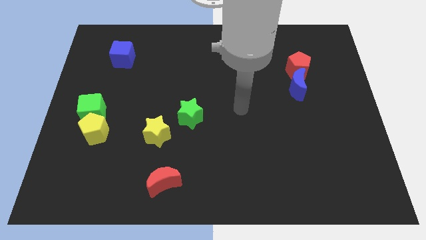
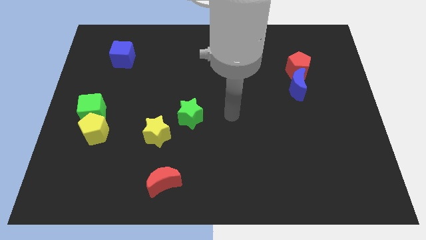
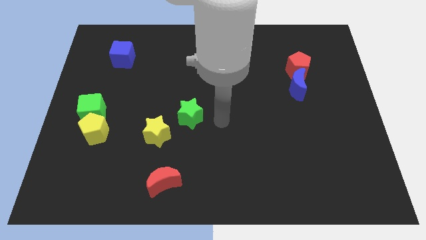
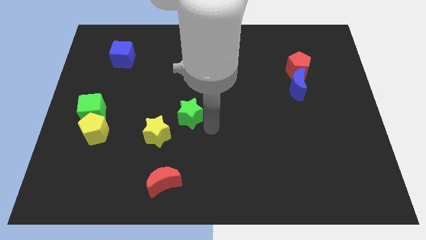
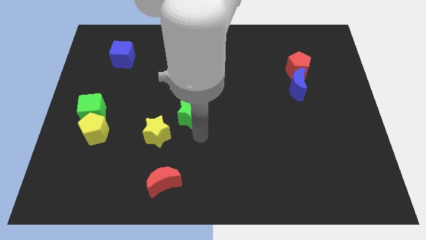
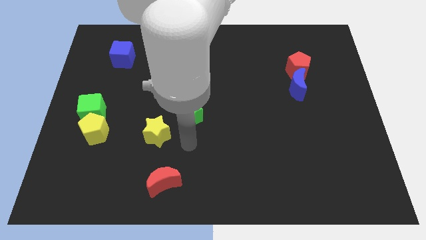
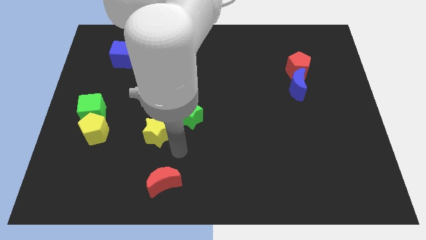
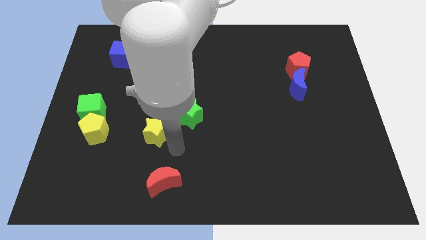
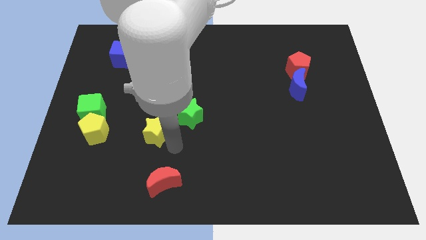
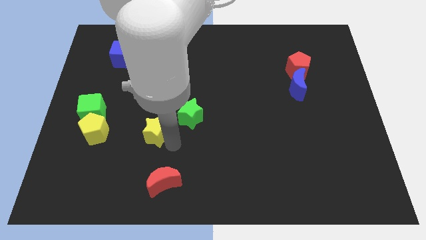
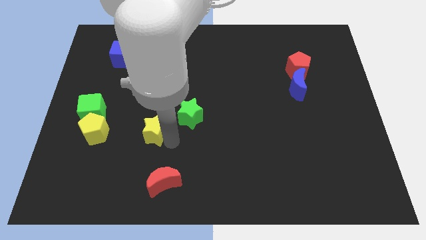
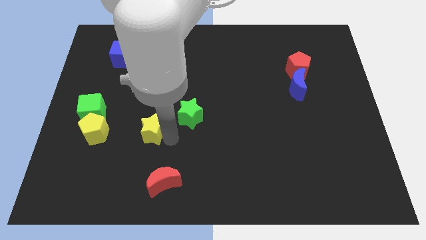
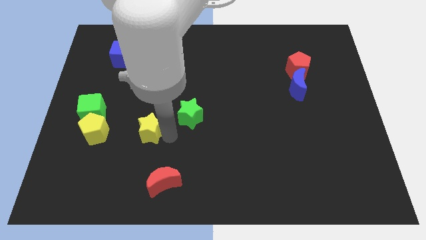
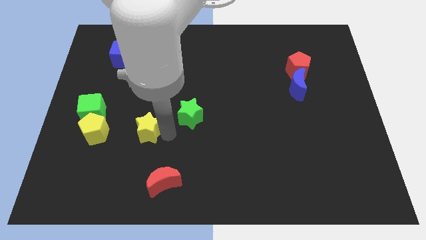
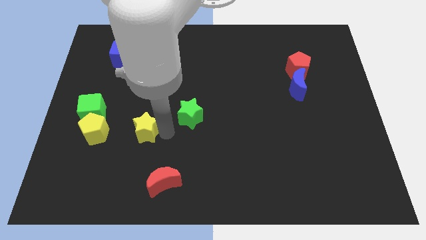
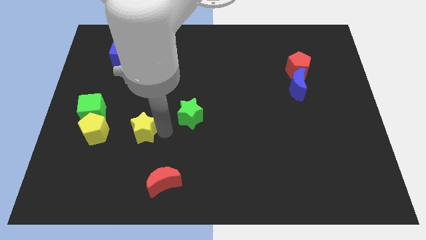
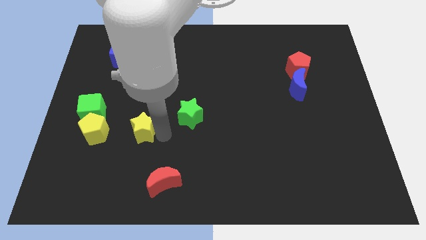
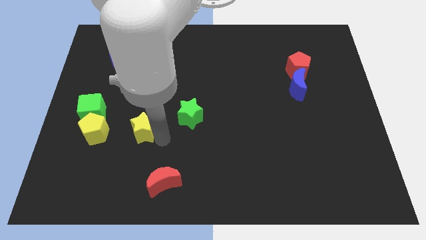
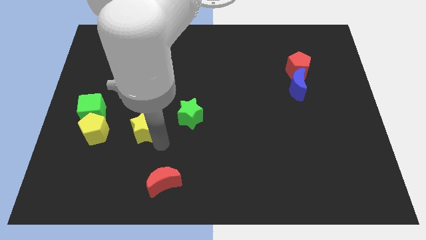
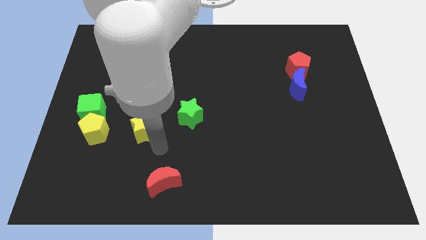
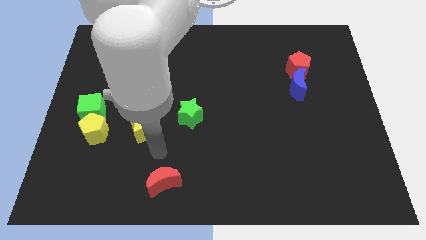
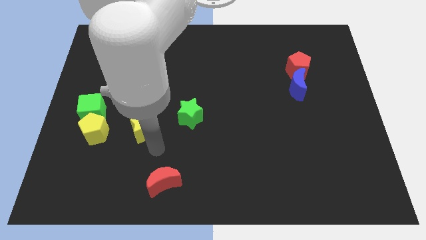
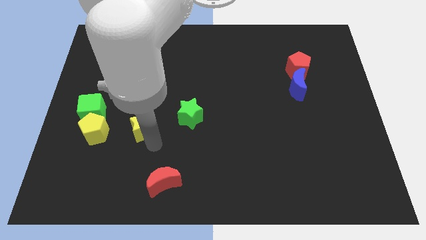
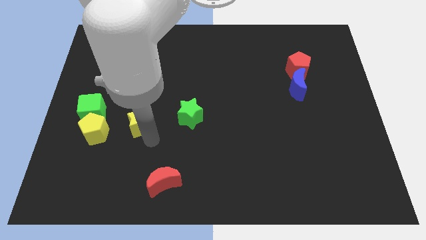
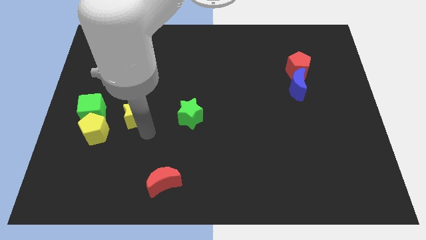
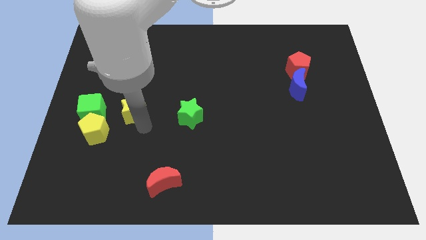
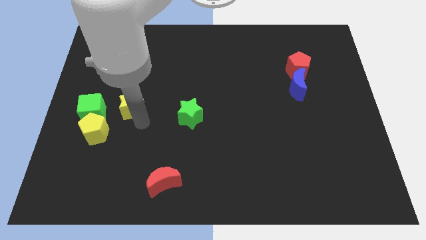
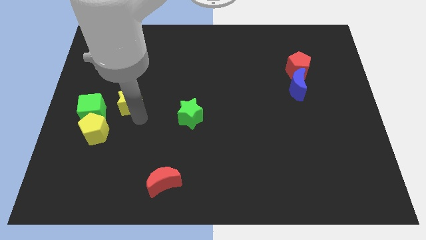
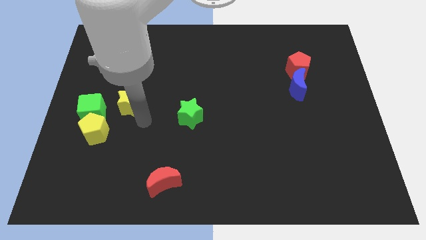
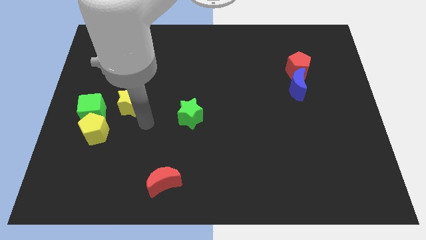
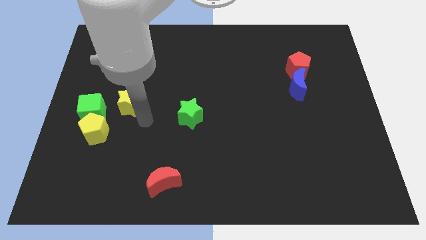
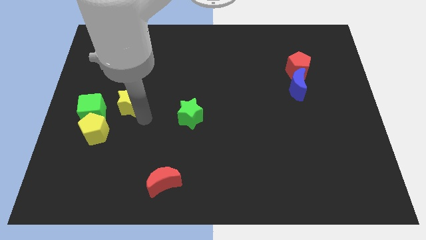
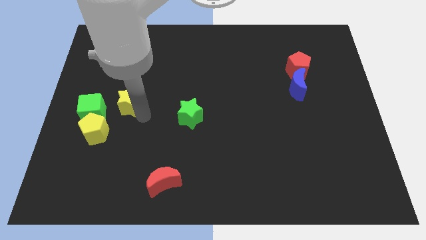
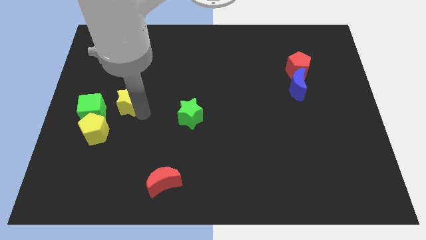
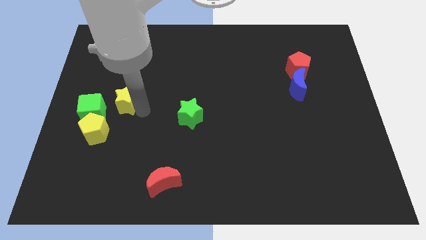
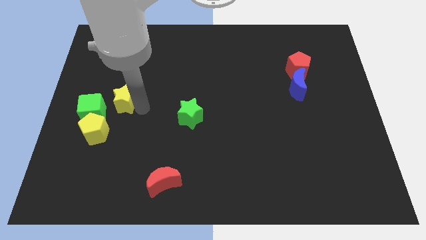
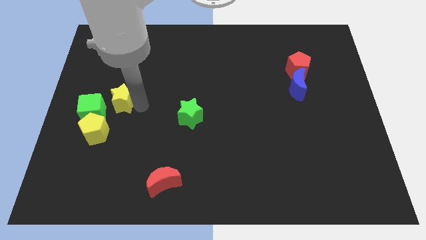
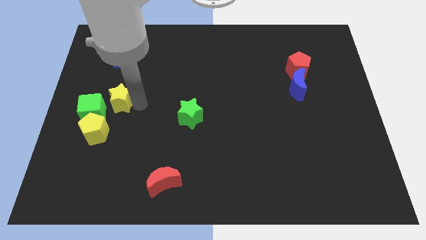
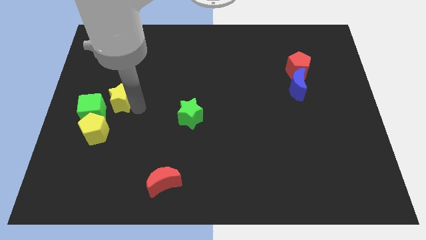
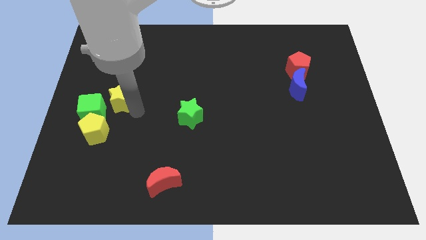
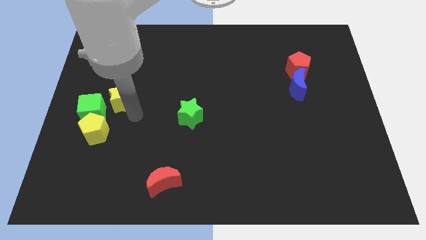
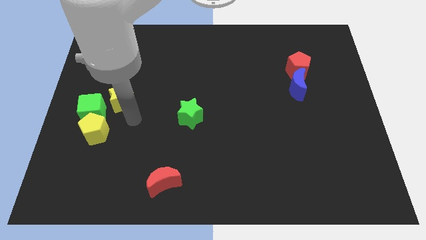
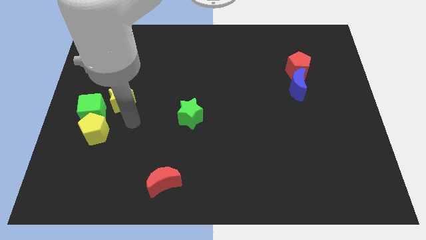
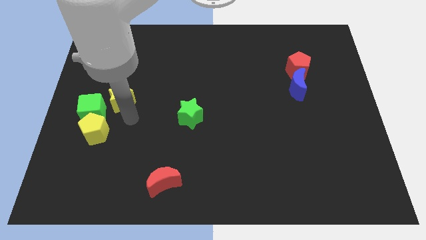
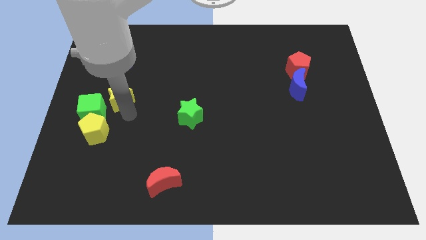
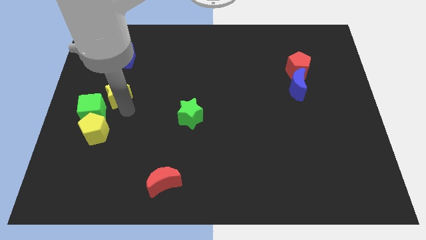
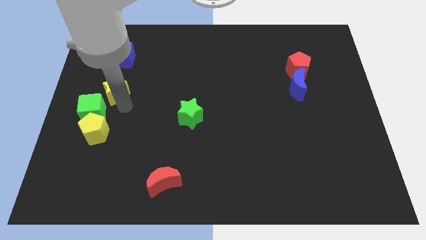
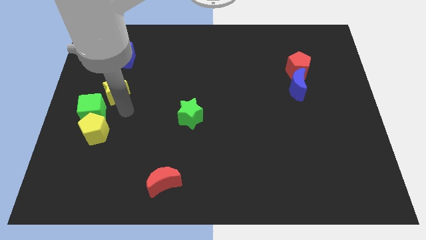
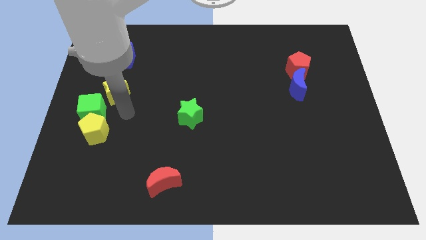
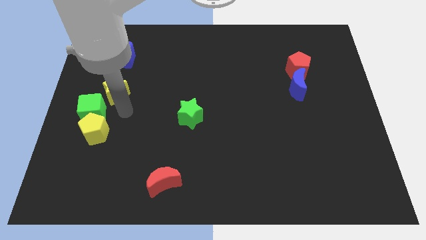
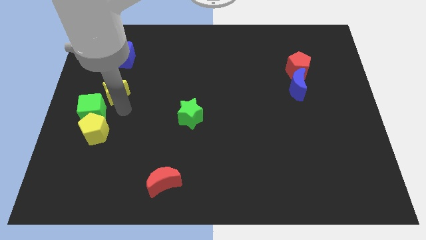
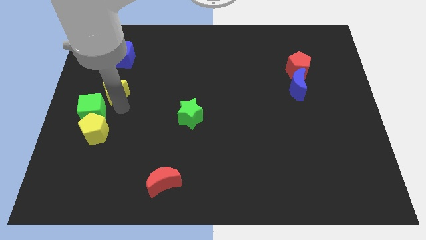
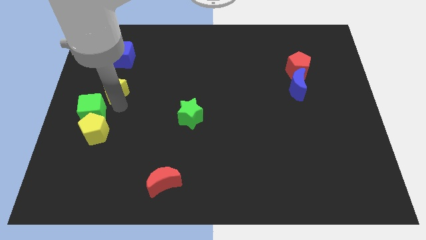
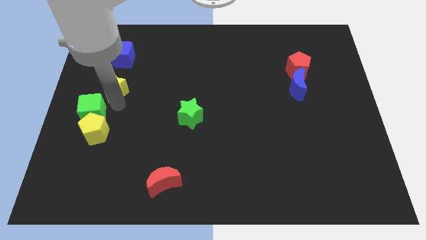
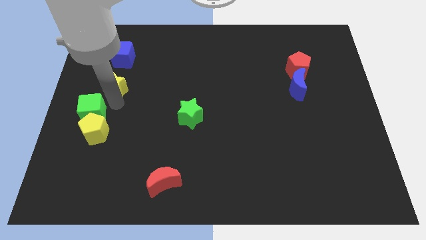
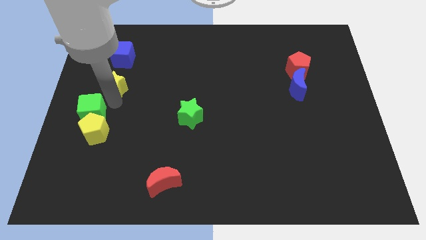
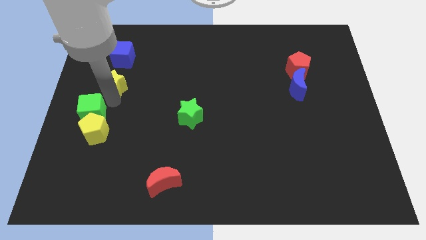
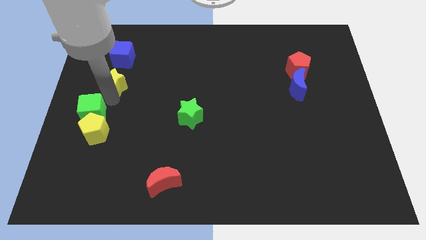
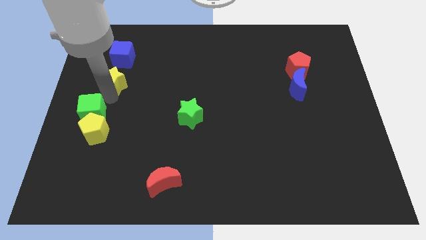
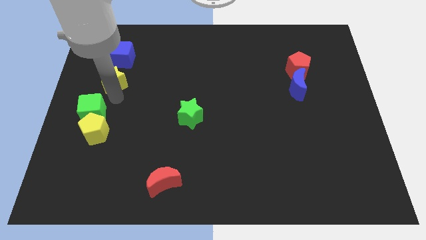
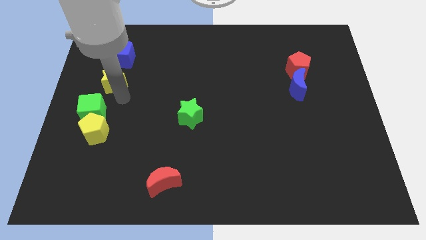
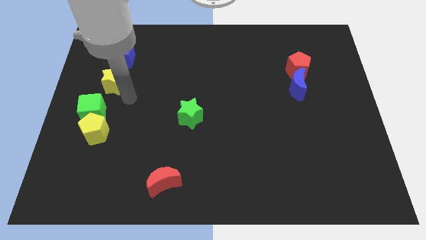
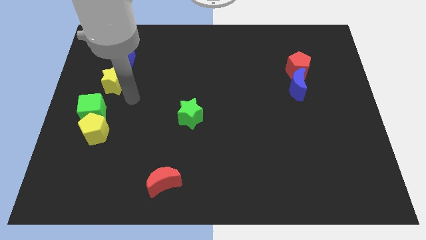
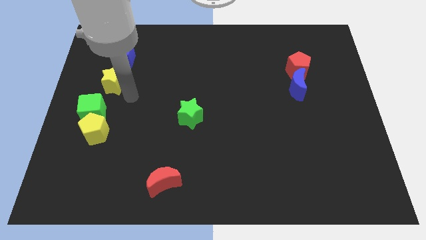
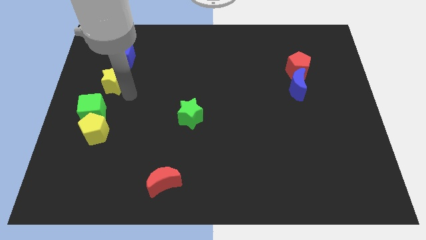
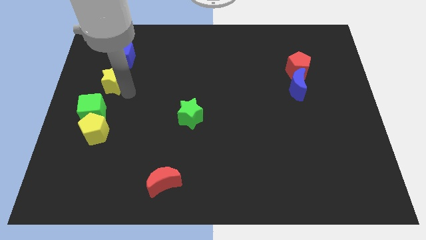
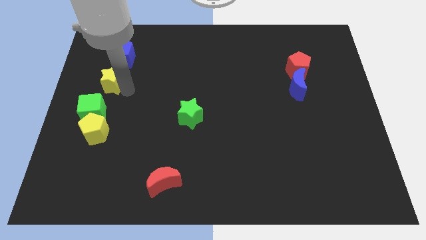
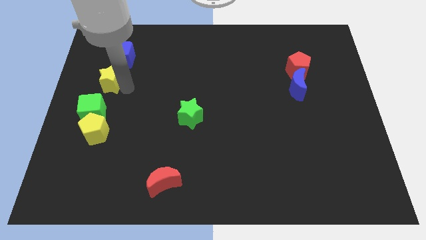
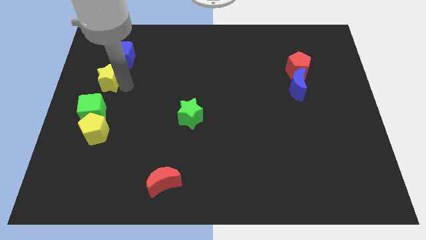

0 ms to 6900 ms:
put the yellow star to the bottom left of the blue cube
